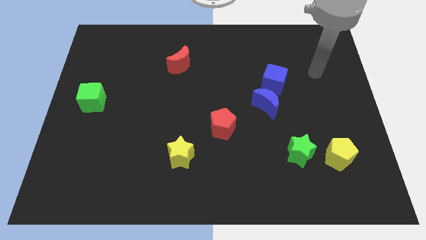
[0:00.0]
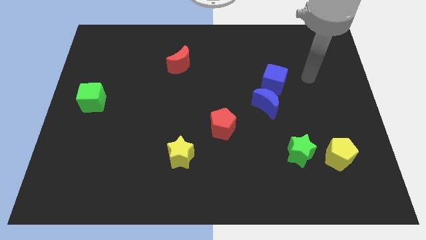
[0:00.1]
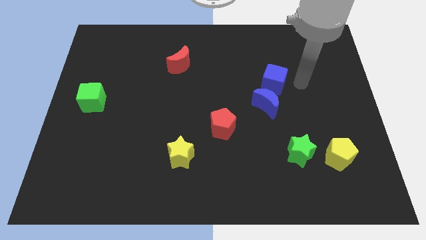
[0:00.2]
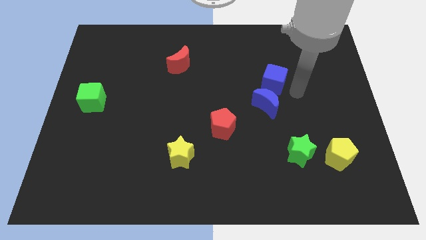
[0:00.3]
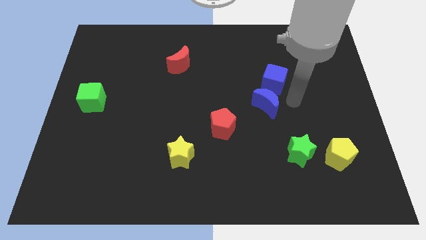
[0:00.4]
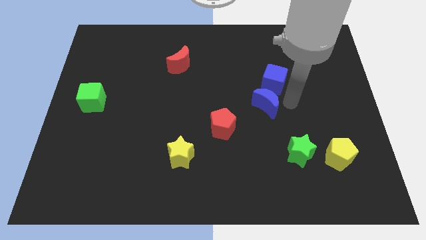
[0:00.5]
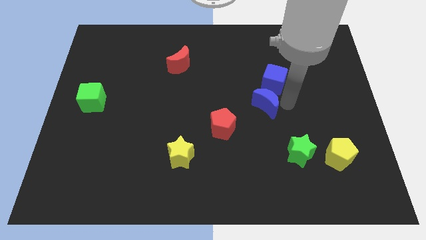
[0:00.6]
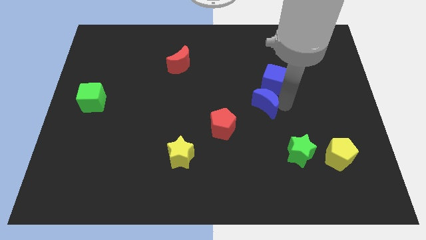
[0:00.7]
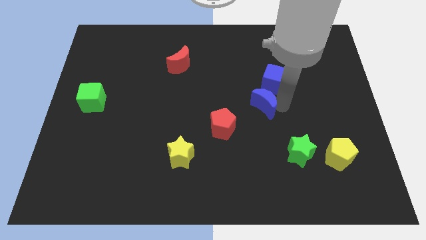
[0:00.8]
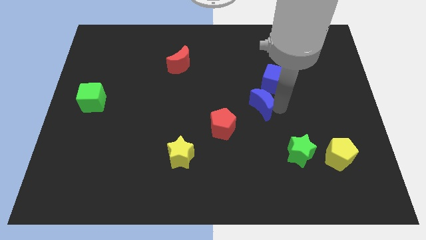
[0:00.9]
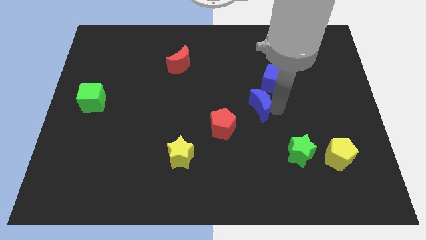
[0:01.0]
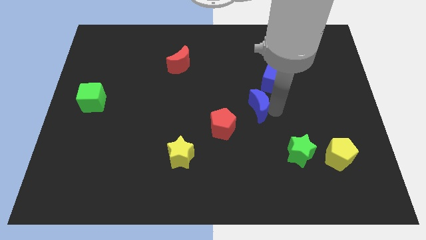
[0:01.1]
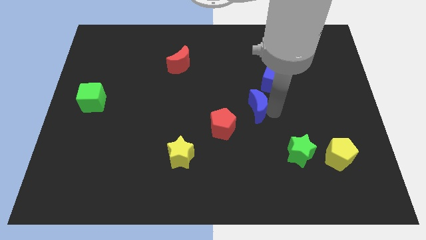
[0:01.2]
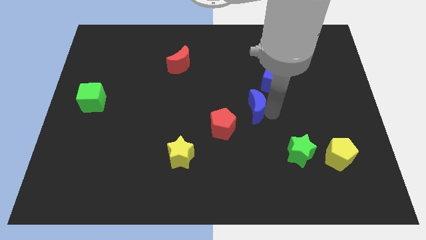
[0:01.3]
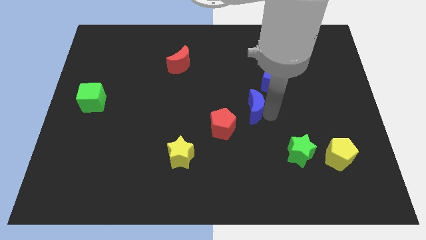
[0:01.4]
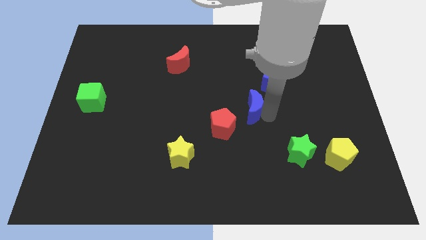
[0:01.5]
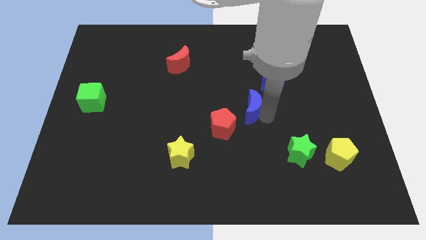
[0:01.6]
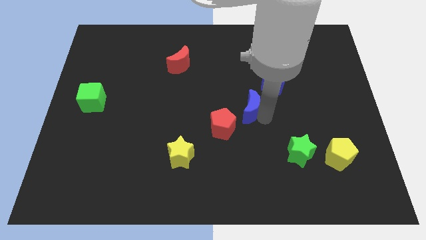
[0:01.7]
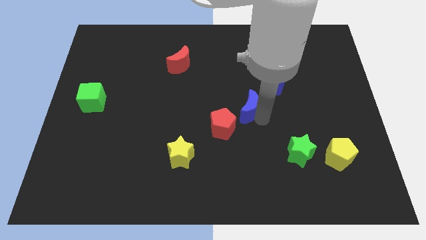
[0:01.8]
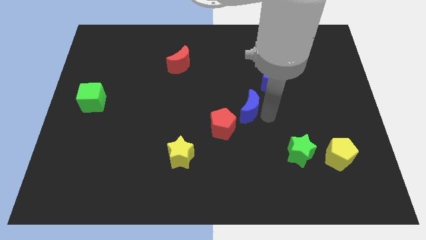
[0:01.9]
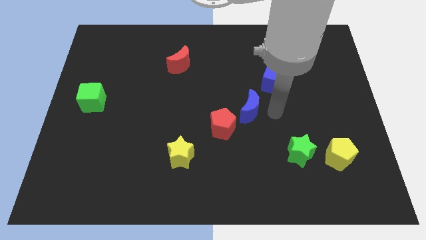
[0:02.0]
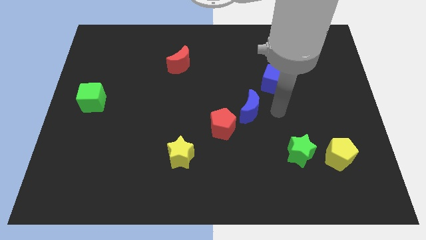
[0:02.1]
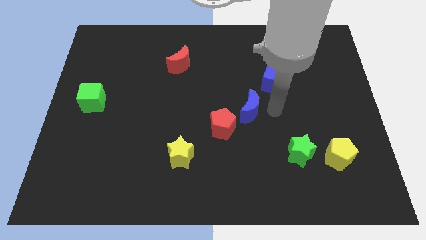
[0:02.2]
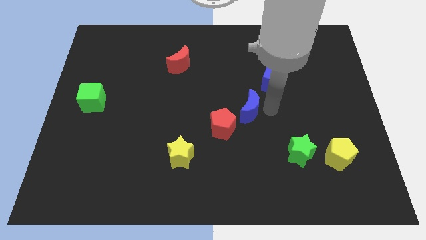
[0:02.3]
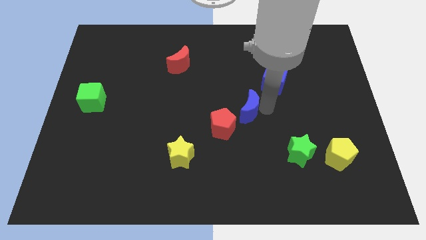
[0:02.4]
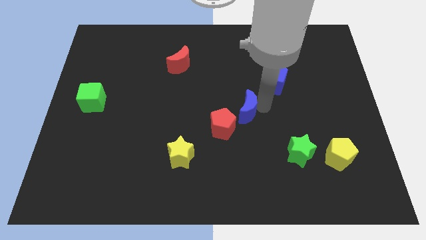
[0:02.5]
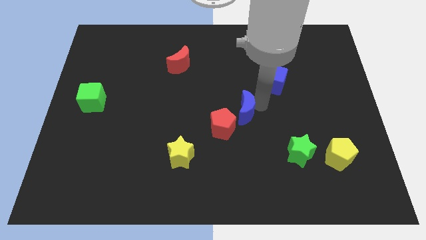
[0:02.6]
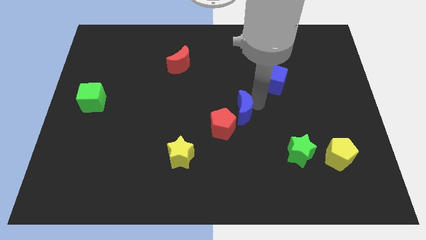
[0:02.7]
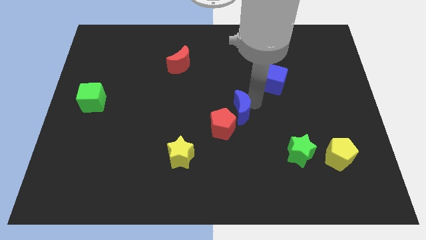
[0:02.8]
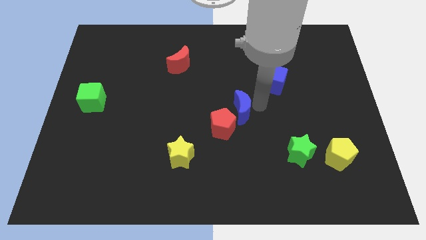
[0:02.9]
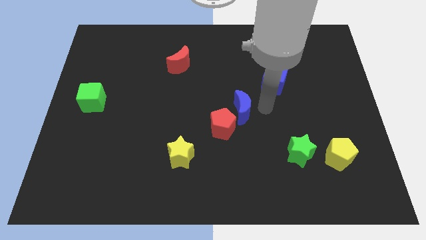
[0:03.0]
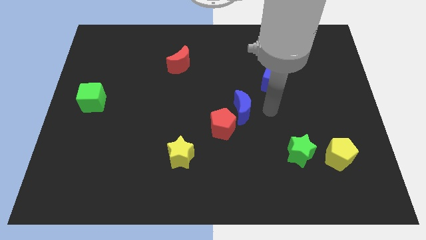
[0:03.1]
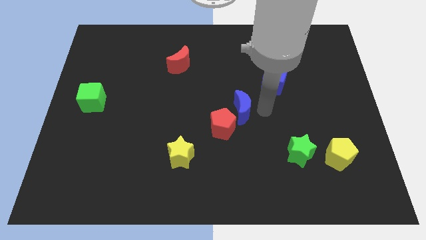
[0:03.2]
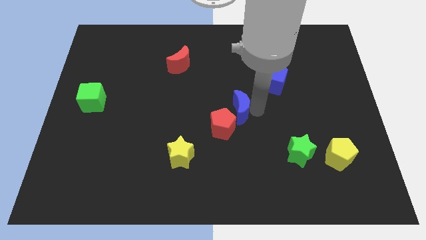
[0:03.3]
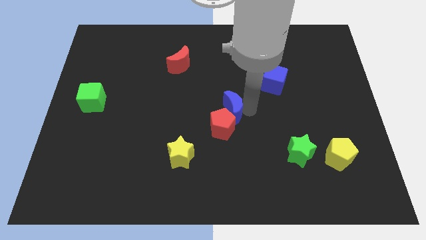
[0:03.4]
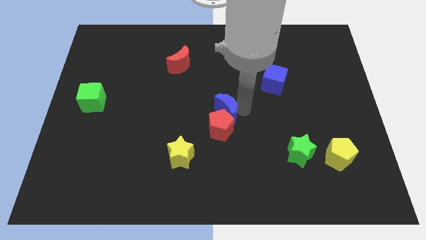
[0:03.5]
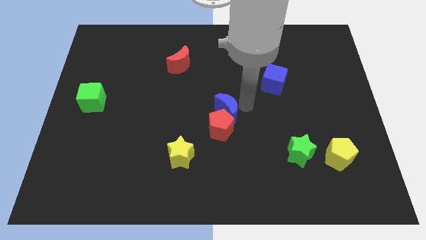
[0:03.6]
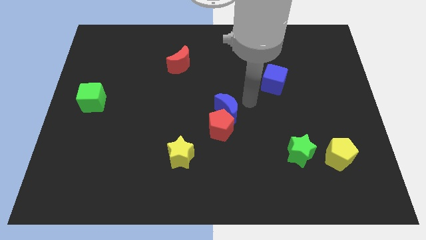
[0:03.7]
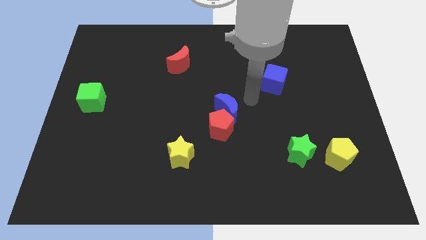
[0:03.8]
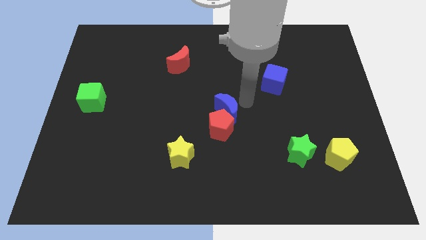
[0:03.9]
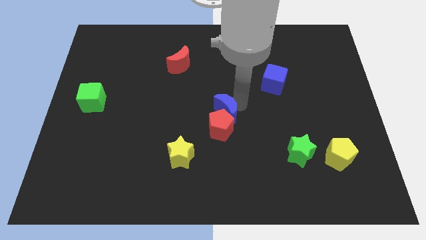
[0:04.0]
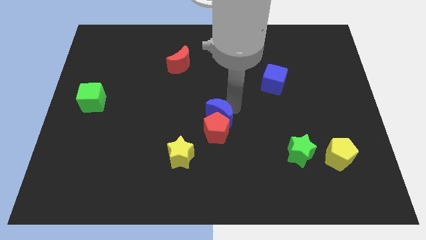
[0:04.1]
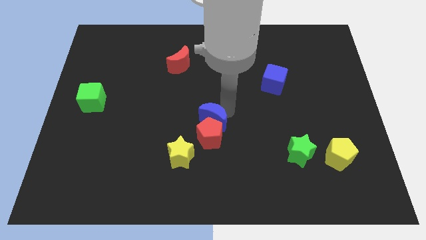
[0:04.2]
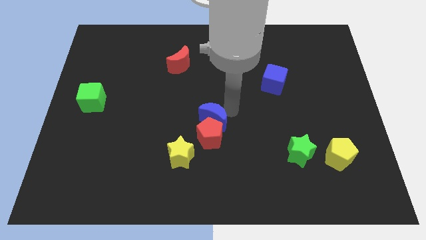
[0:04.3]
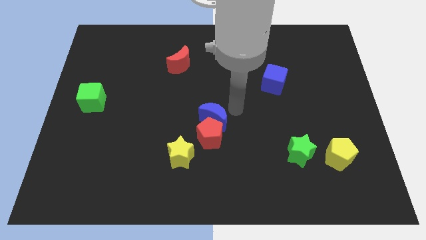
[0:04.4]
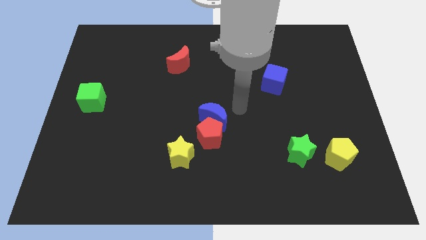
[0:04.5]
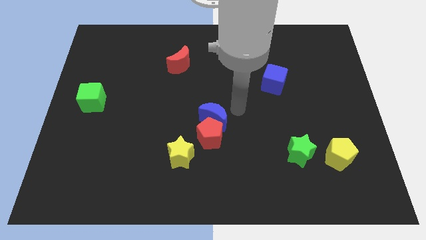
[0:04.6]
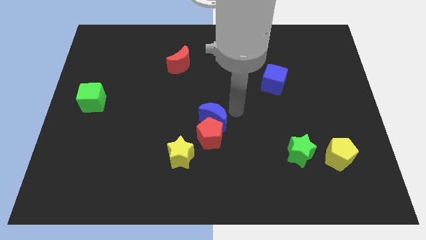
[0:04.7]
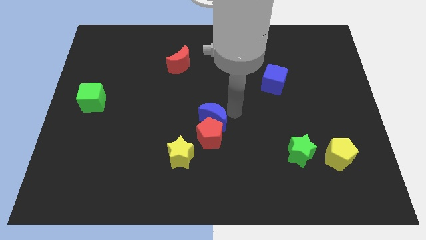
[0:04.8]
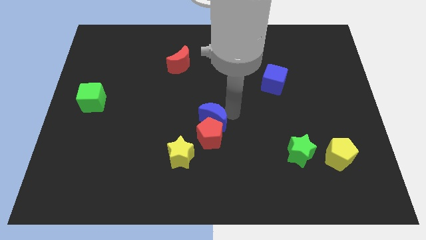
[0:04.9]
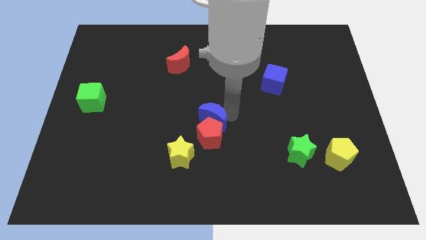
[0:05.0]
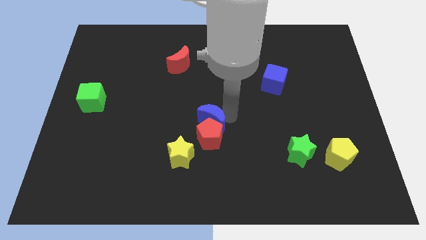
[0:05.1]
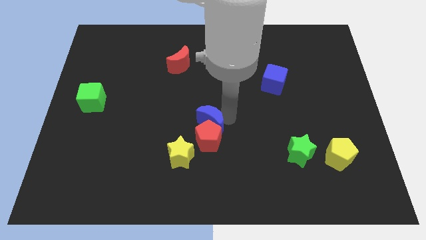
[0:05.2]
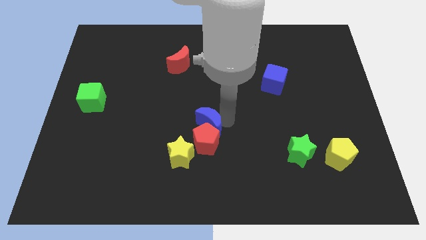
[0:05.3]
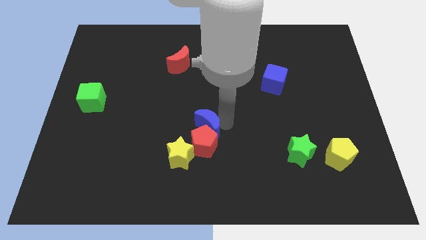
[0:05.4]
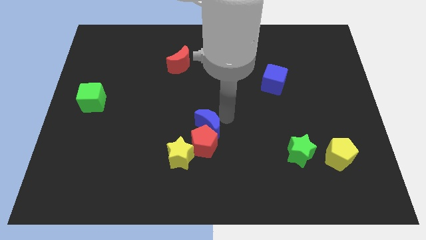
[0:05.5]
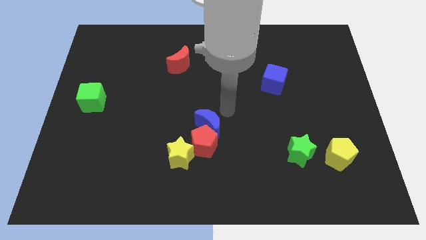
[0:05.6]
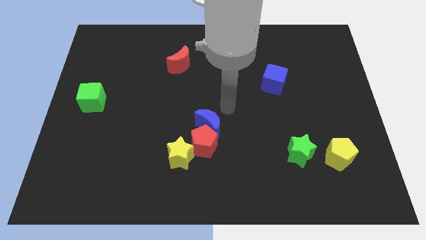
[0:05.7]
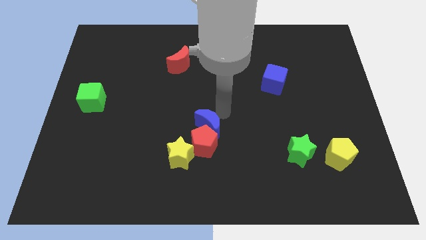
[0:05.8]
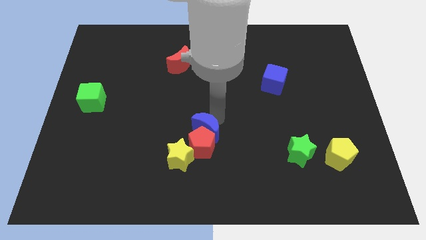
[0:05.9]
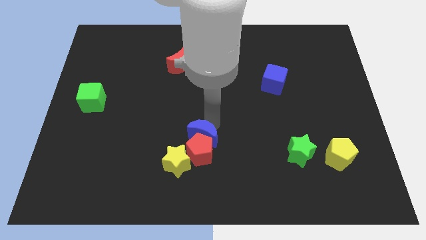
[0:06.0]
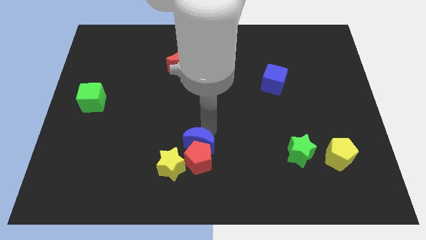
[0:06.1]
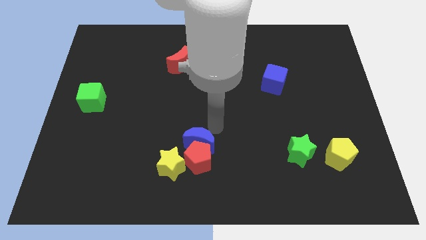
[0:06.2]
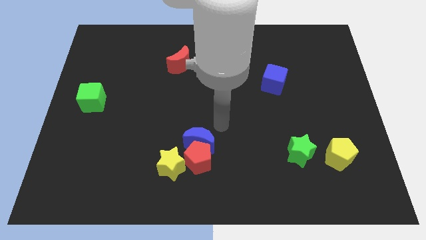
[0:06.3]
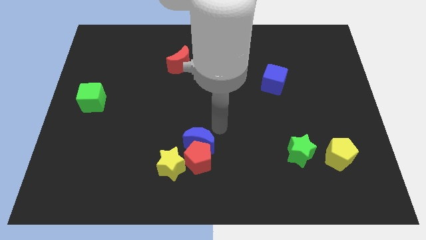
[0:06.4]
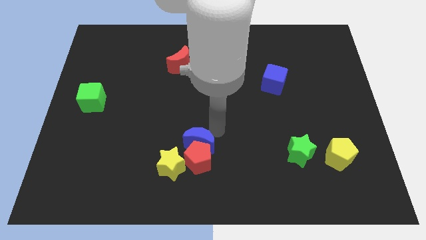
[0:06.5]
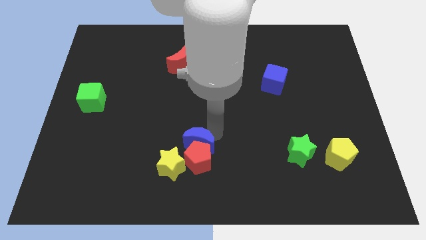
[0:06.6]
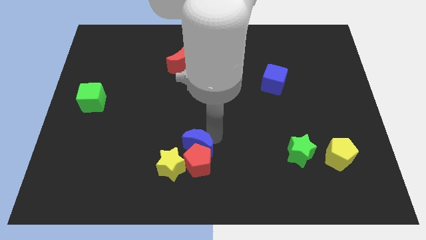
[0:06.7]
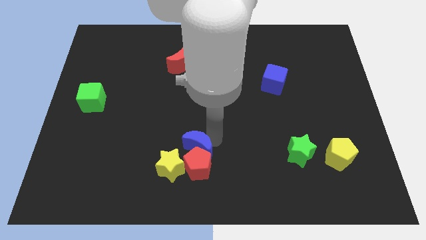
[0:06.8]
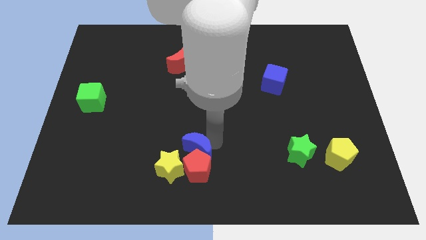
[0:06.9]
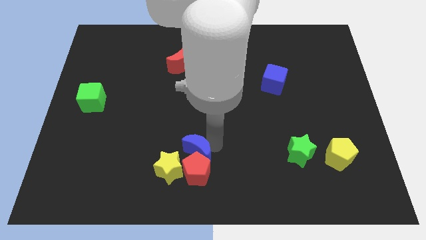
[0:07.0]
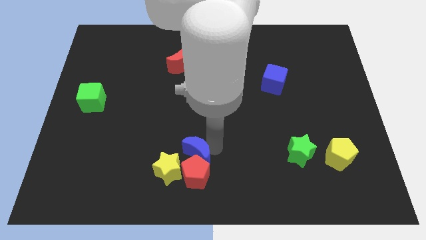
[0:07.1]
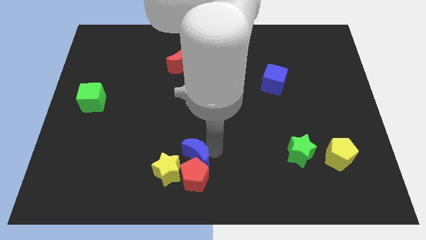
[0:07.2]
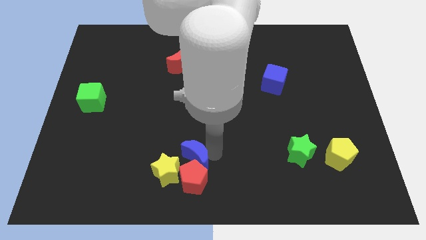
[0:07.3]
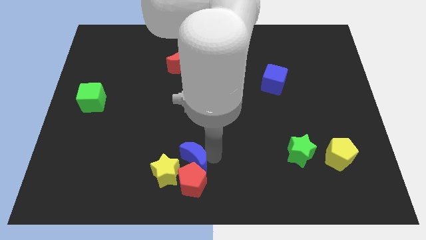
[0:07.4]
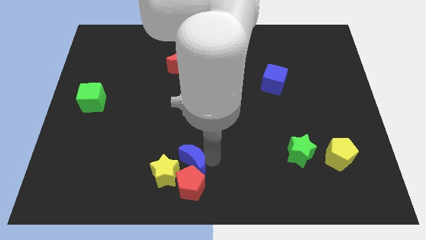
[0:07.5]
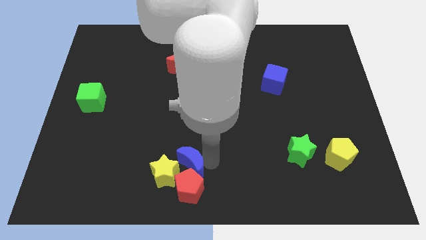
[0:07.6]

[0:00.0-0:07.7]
slide the blue moon towards the yellow star

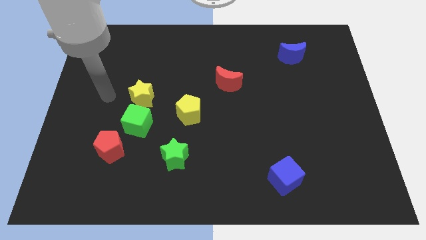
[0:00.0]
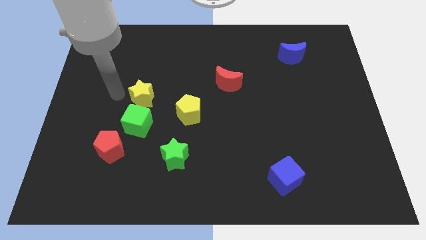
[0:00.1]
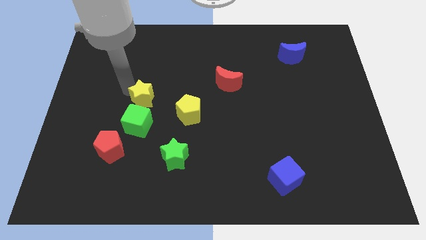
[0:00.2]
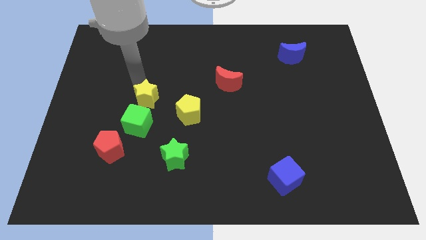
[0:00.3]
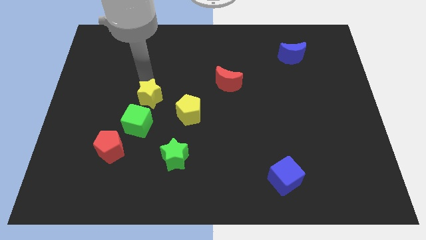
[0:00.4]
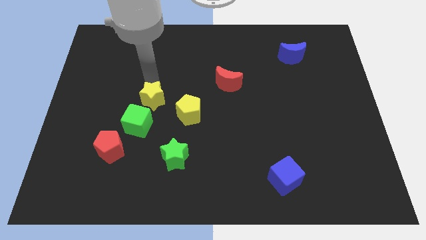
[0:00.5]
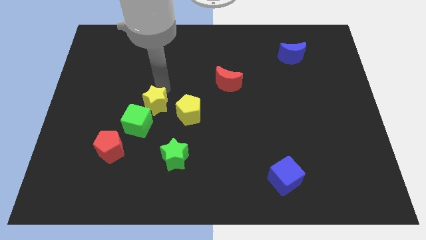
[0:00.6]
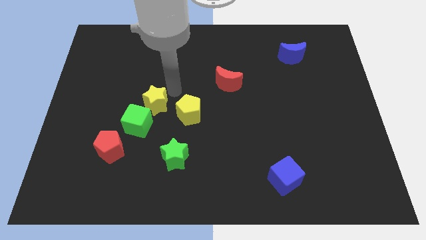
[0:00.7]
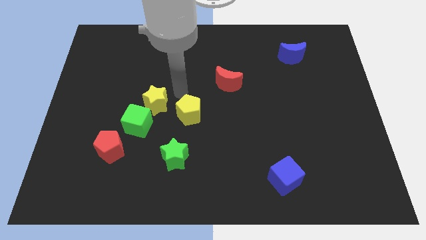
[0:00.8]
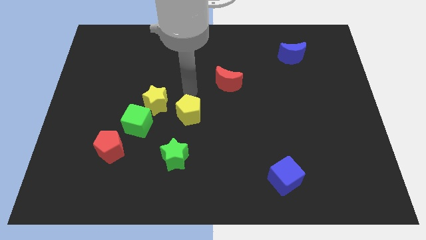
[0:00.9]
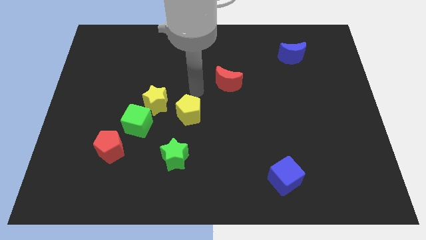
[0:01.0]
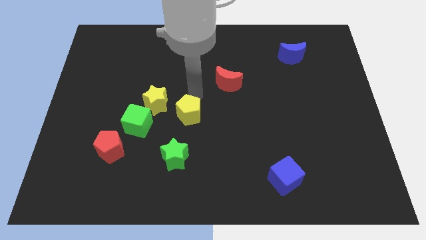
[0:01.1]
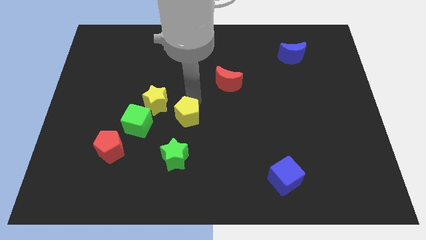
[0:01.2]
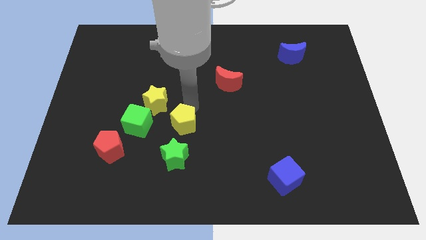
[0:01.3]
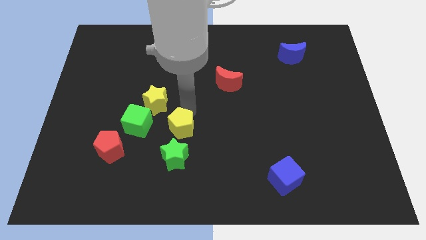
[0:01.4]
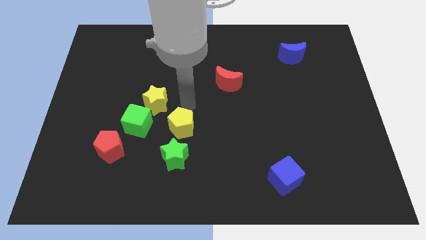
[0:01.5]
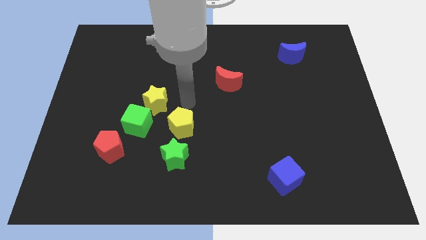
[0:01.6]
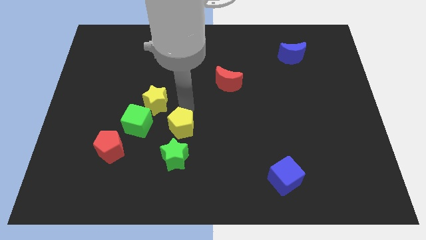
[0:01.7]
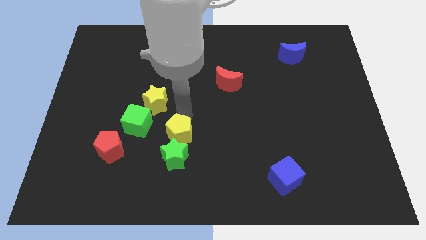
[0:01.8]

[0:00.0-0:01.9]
move the yellow pentagon to the green star
